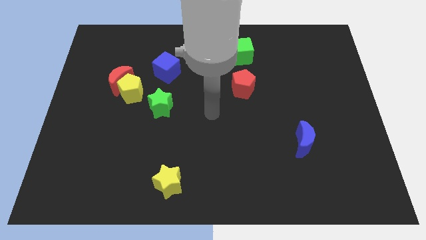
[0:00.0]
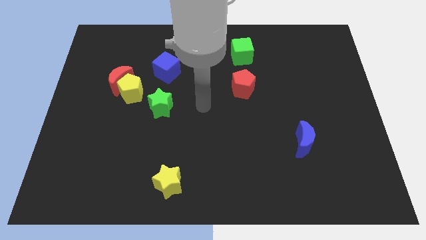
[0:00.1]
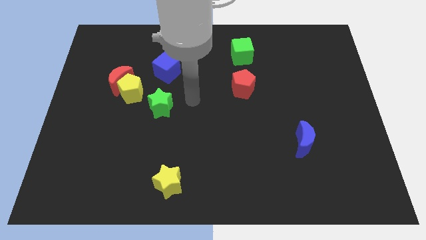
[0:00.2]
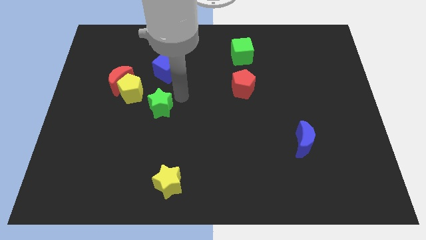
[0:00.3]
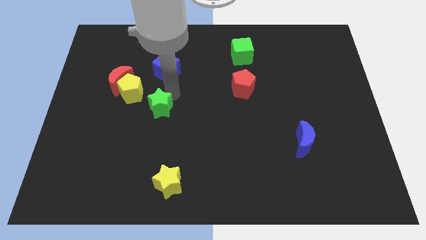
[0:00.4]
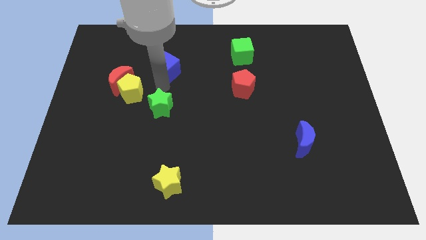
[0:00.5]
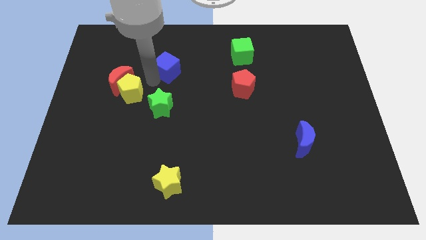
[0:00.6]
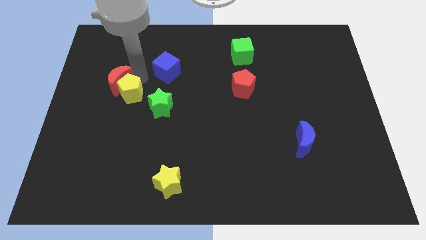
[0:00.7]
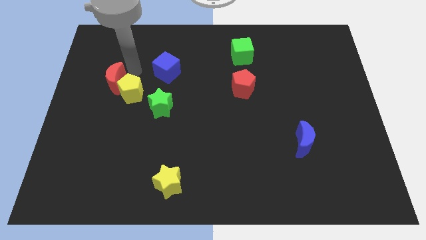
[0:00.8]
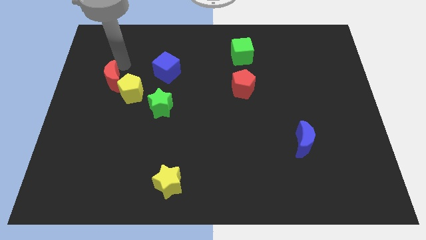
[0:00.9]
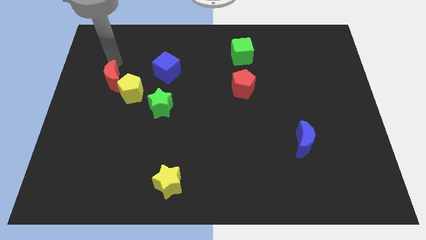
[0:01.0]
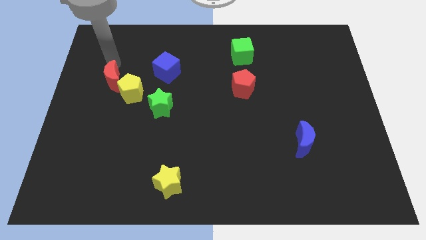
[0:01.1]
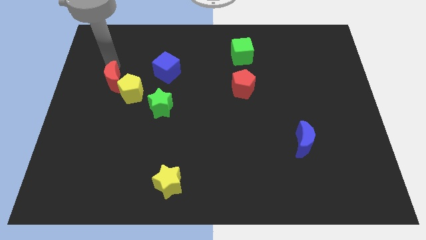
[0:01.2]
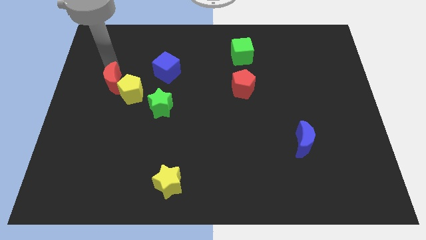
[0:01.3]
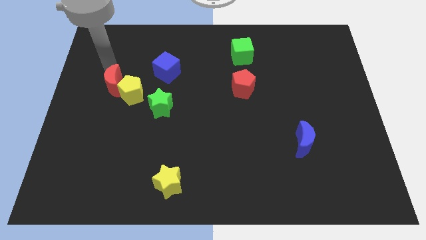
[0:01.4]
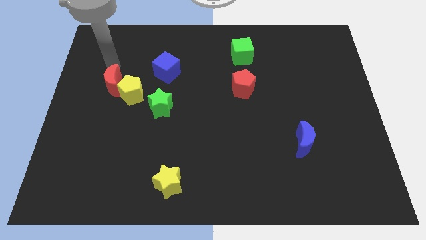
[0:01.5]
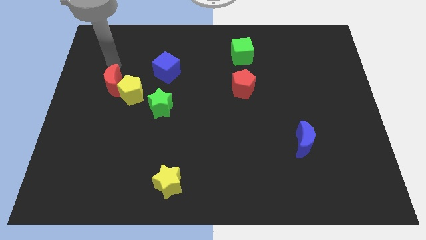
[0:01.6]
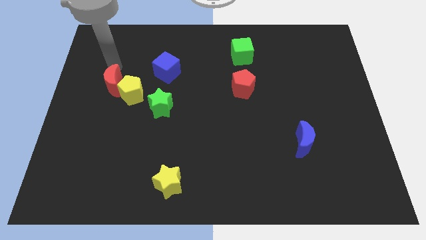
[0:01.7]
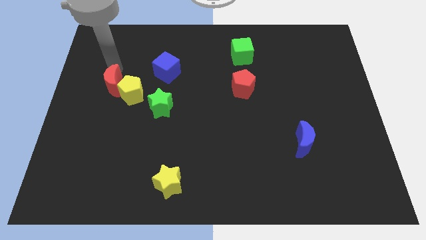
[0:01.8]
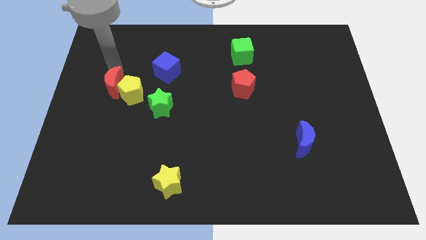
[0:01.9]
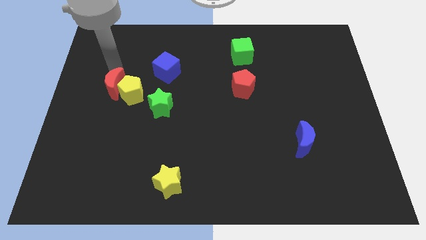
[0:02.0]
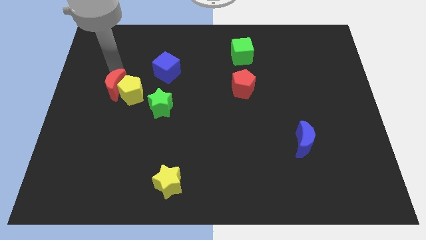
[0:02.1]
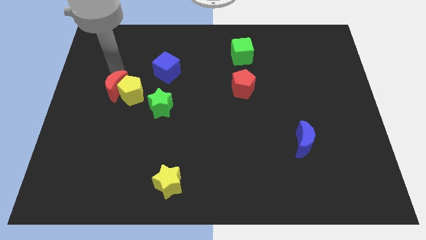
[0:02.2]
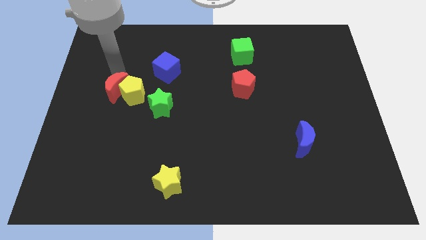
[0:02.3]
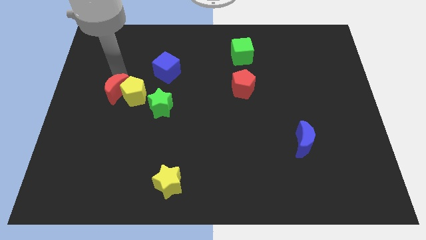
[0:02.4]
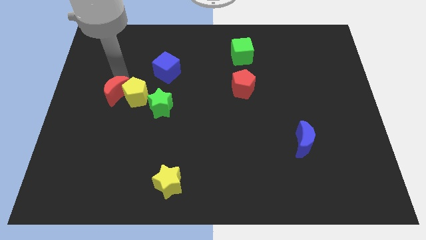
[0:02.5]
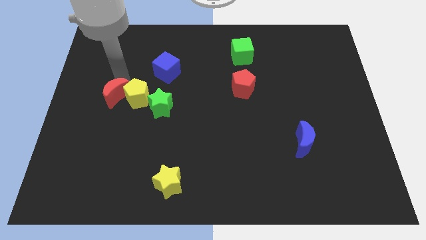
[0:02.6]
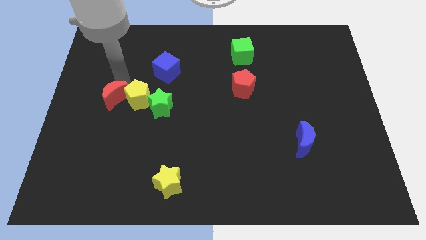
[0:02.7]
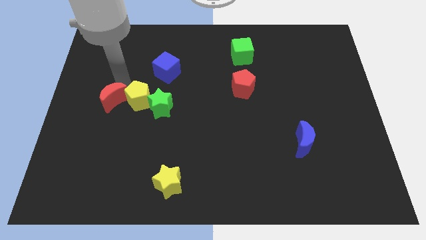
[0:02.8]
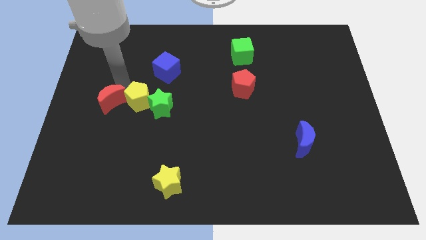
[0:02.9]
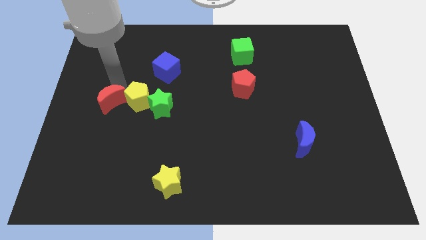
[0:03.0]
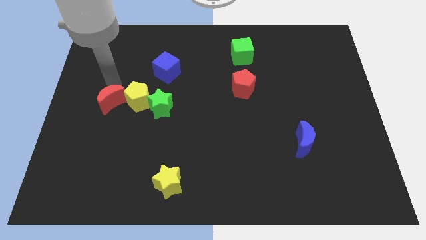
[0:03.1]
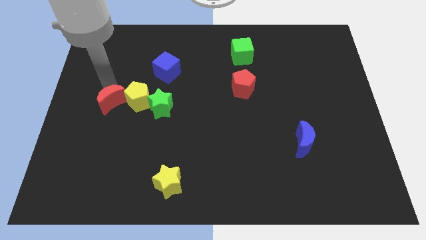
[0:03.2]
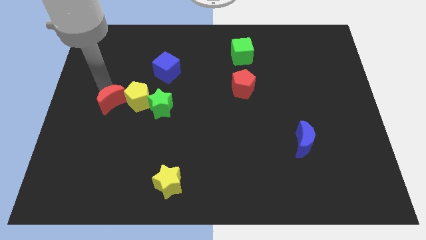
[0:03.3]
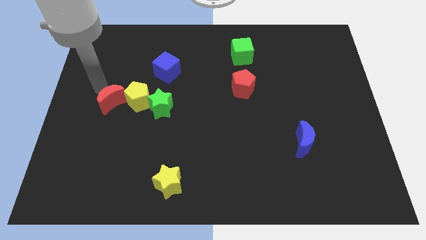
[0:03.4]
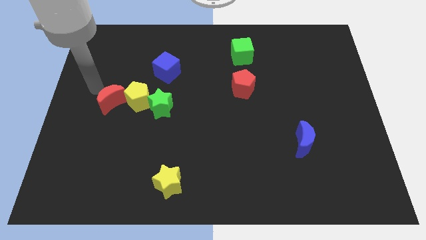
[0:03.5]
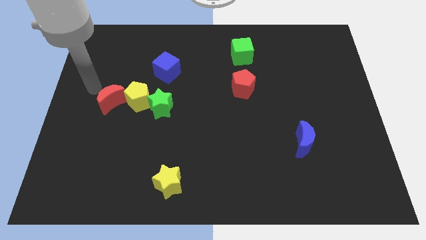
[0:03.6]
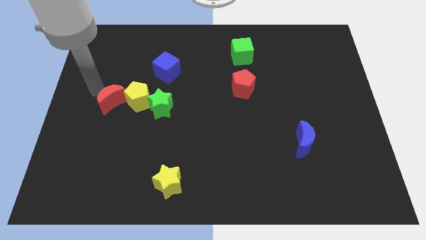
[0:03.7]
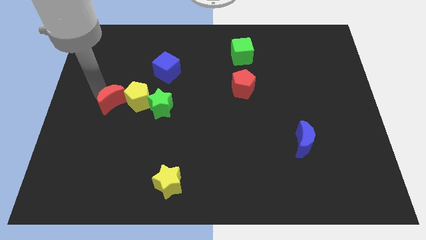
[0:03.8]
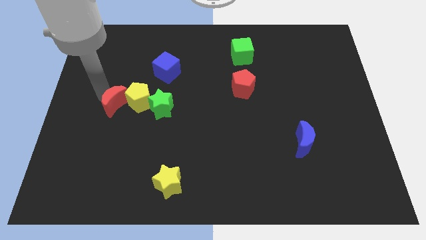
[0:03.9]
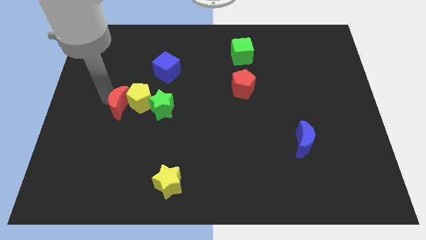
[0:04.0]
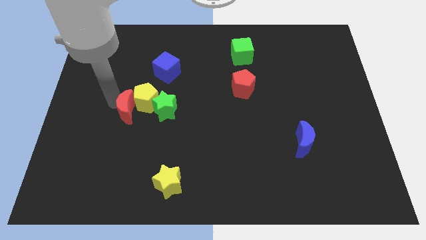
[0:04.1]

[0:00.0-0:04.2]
slightly push the red moon down and to the right diagonally

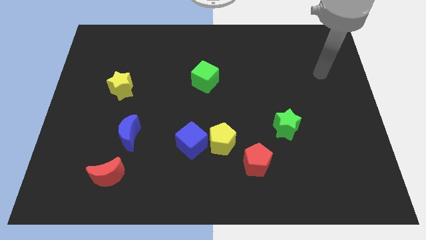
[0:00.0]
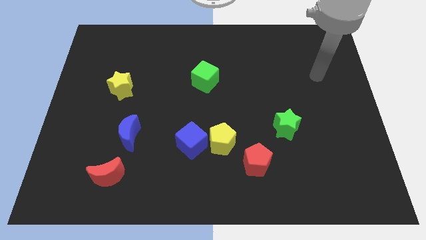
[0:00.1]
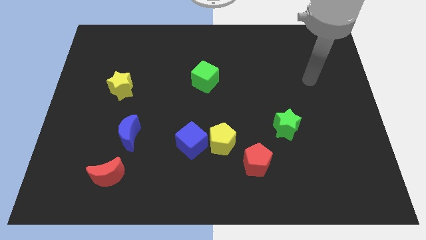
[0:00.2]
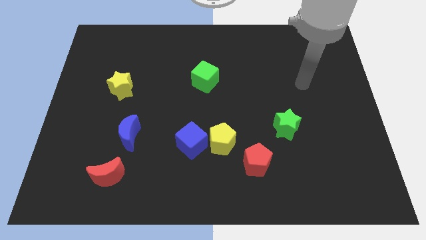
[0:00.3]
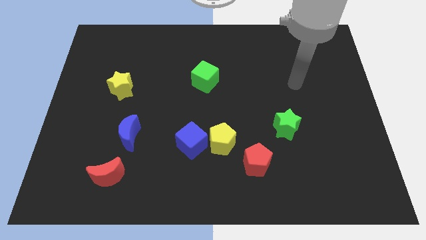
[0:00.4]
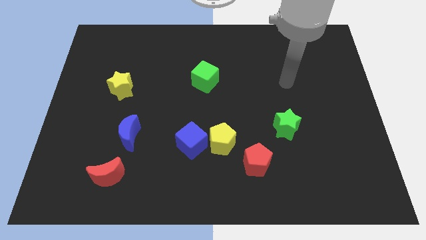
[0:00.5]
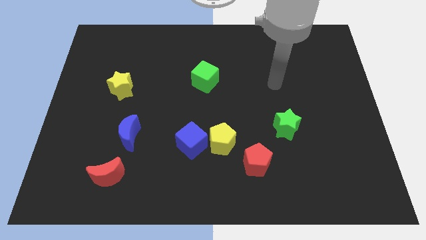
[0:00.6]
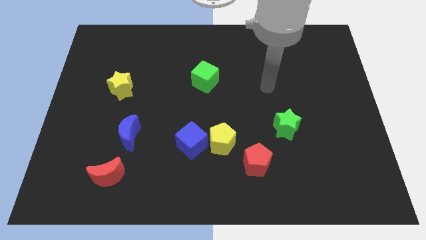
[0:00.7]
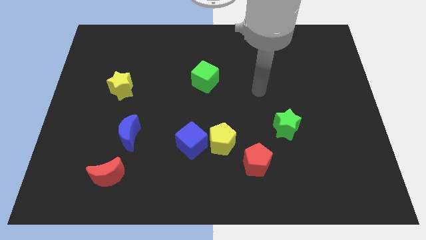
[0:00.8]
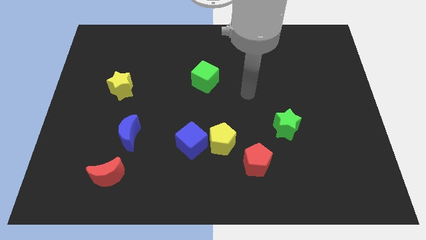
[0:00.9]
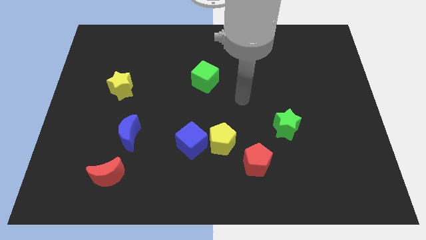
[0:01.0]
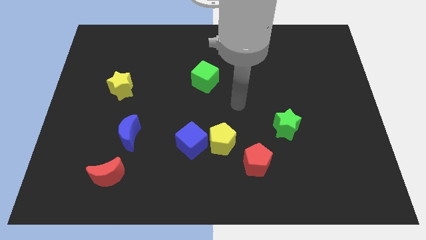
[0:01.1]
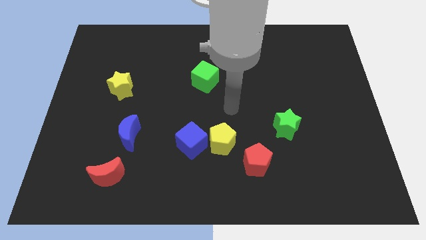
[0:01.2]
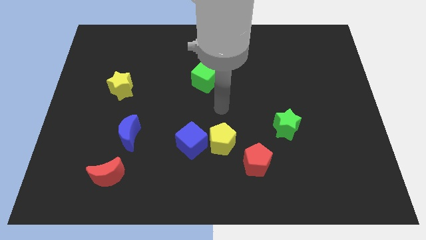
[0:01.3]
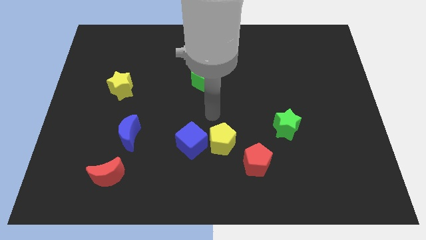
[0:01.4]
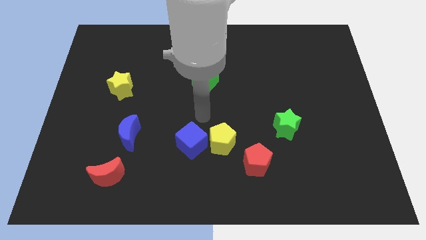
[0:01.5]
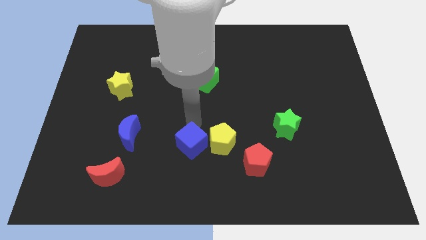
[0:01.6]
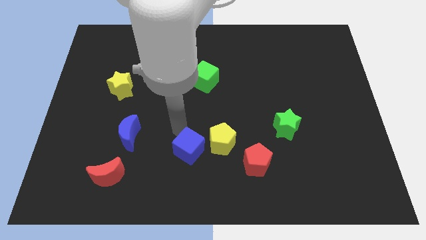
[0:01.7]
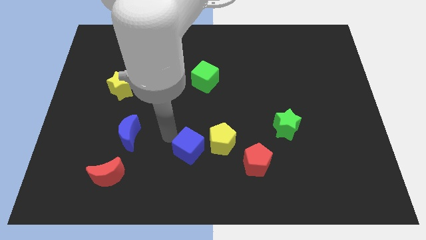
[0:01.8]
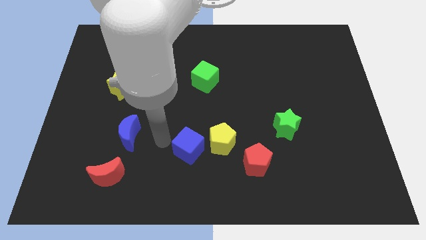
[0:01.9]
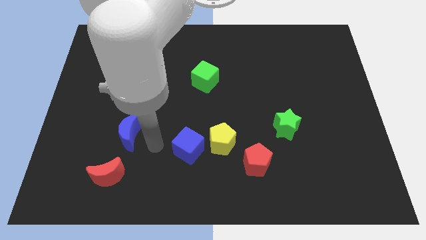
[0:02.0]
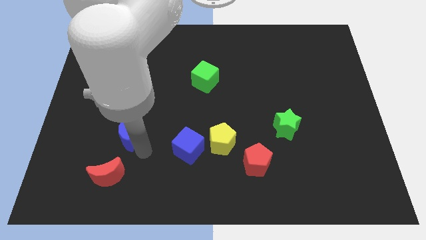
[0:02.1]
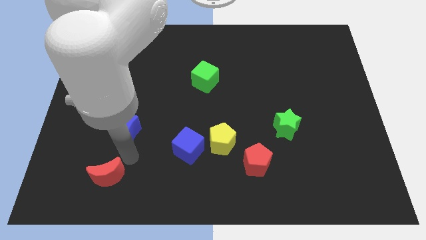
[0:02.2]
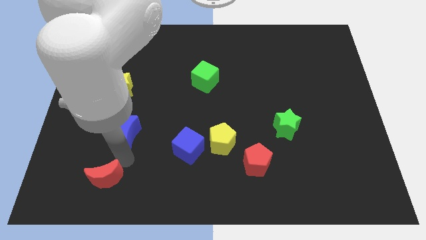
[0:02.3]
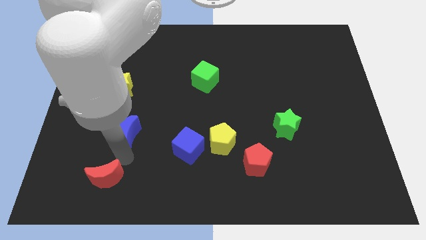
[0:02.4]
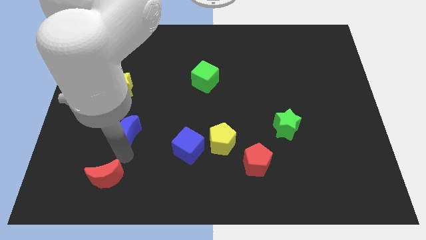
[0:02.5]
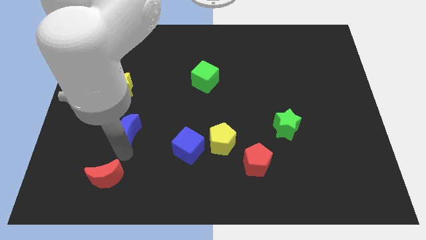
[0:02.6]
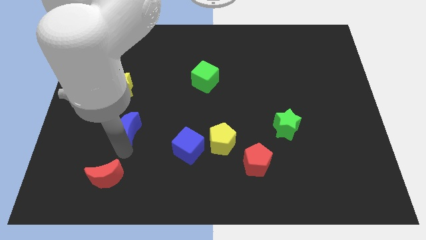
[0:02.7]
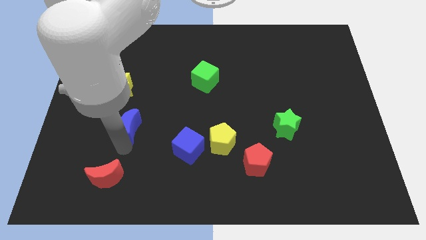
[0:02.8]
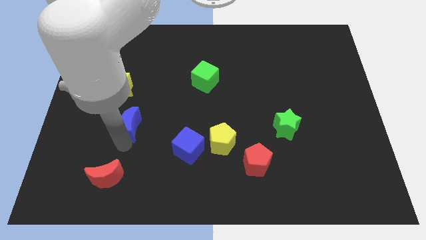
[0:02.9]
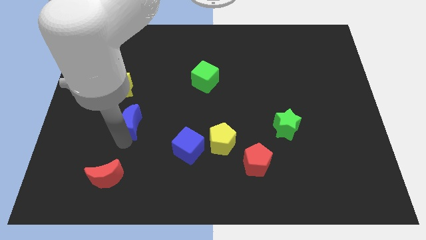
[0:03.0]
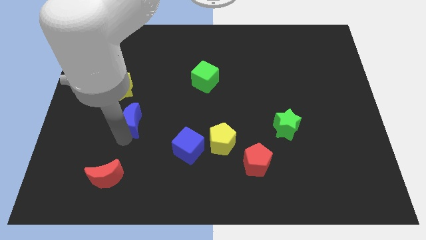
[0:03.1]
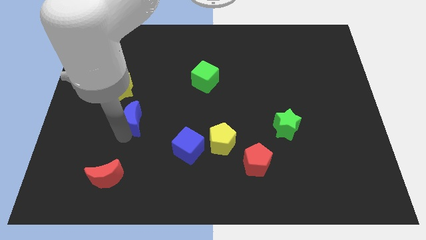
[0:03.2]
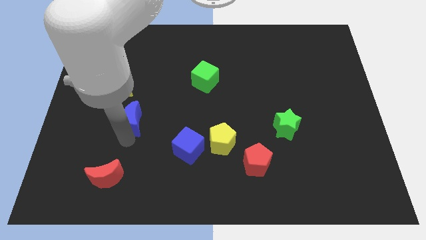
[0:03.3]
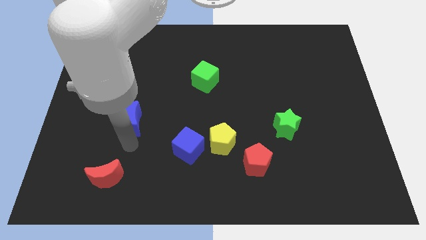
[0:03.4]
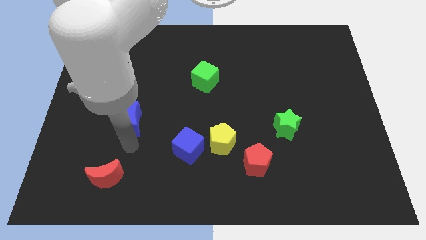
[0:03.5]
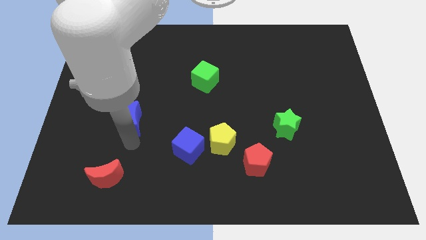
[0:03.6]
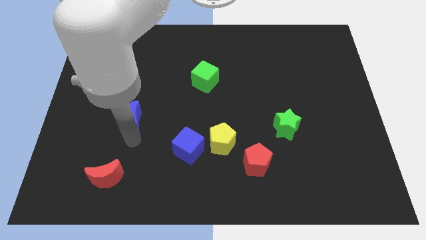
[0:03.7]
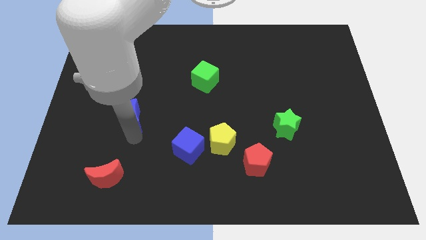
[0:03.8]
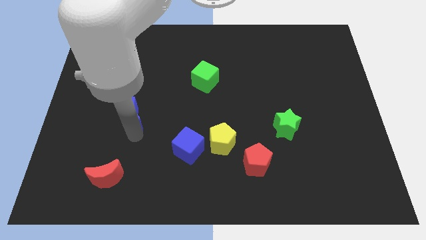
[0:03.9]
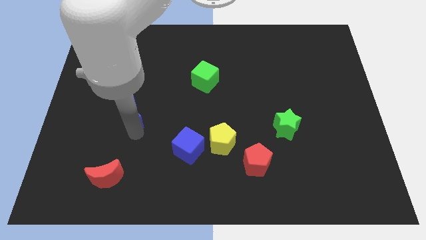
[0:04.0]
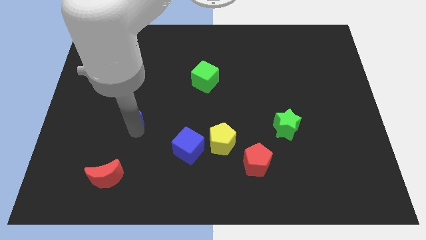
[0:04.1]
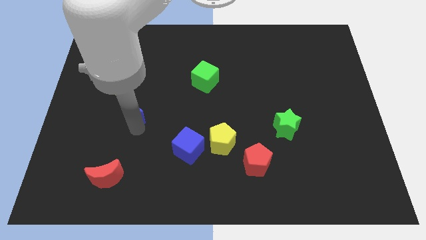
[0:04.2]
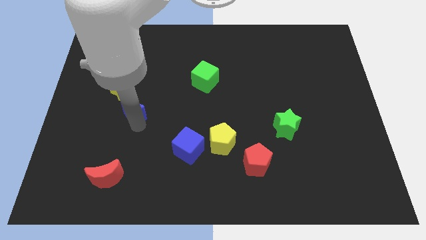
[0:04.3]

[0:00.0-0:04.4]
slightly slide the blue moon up
